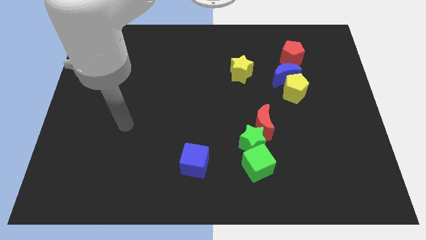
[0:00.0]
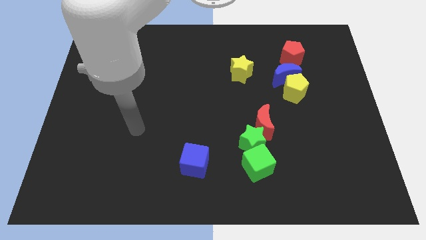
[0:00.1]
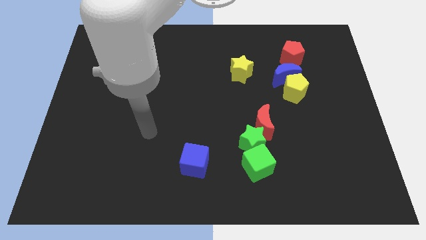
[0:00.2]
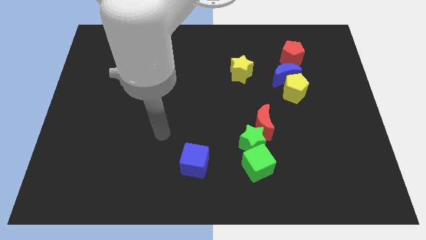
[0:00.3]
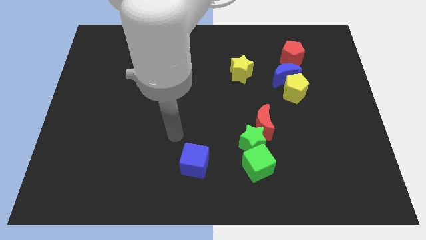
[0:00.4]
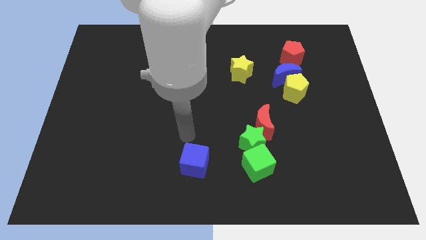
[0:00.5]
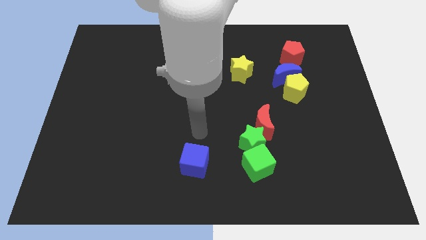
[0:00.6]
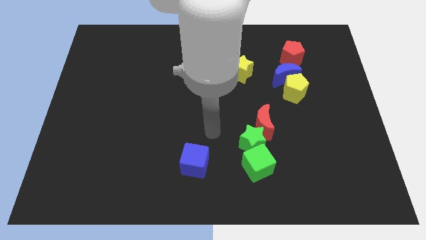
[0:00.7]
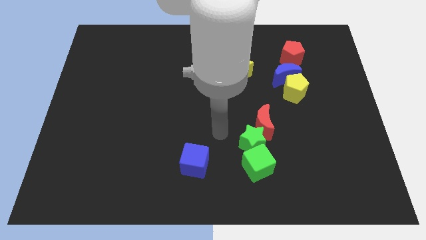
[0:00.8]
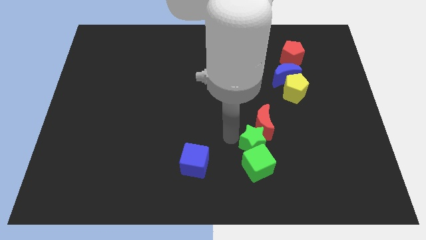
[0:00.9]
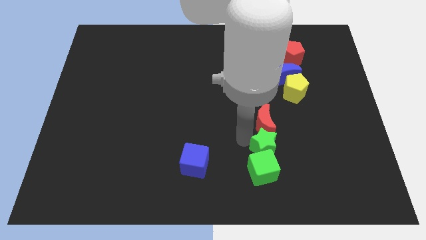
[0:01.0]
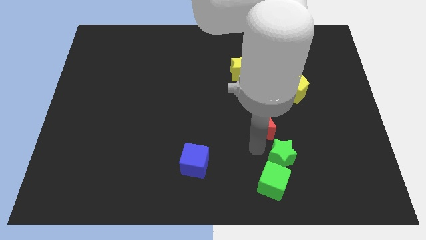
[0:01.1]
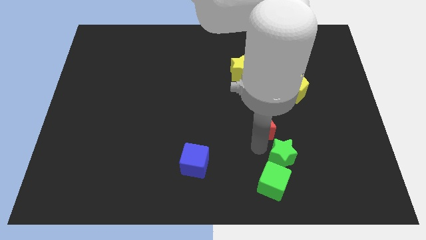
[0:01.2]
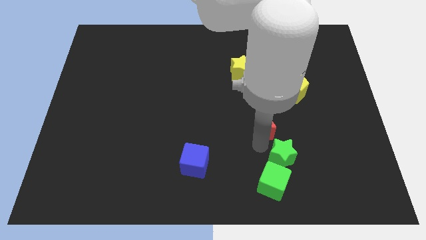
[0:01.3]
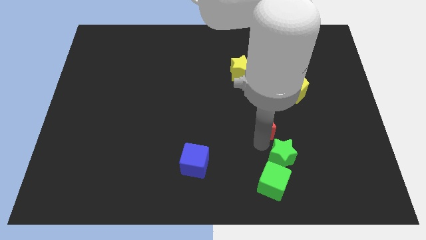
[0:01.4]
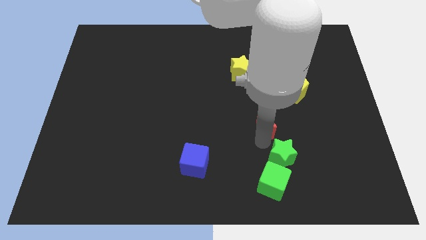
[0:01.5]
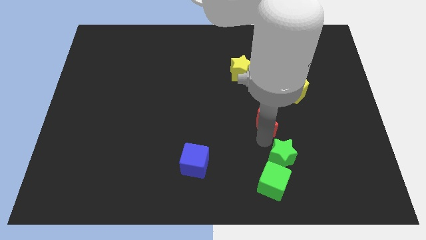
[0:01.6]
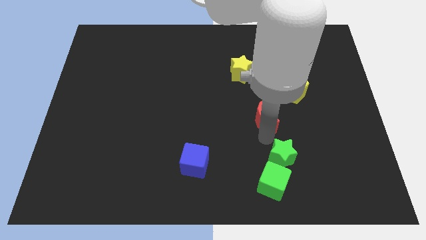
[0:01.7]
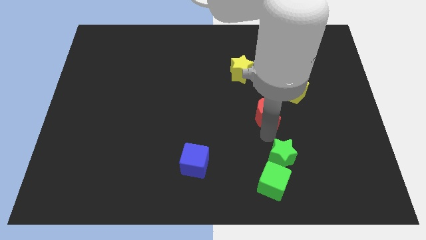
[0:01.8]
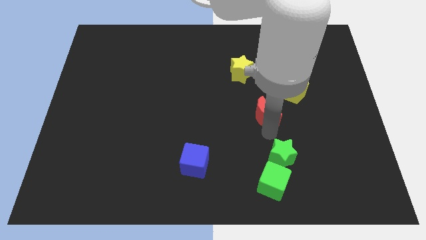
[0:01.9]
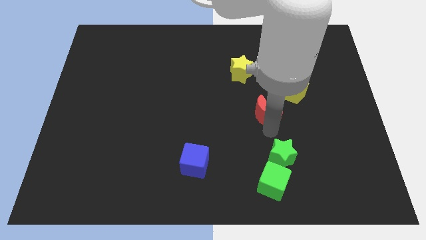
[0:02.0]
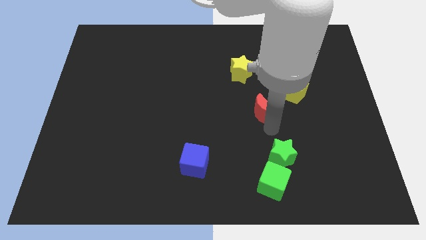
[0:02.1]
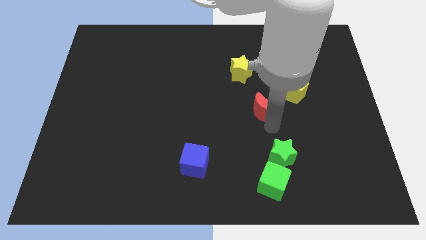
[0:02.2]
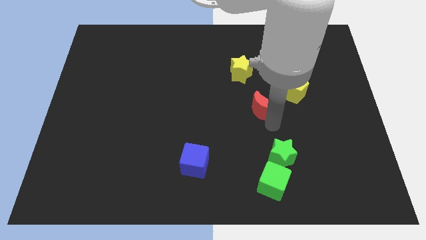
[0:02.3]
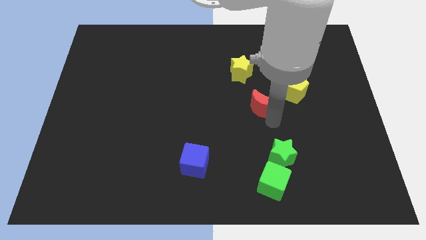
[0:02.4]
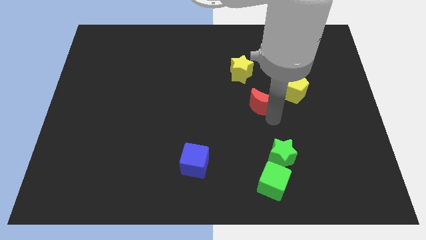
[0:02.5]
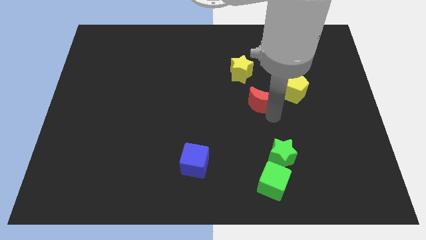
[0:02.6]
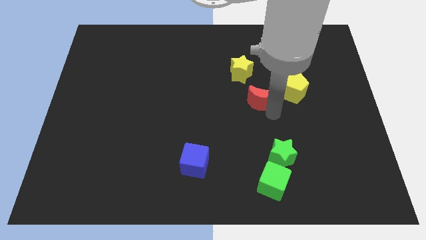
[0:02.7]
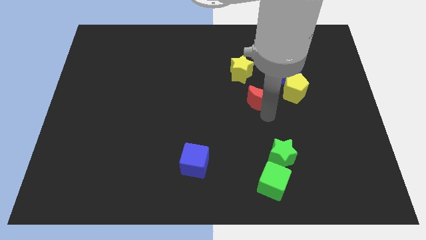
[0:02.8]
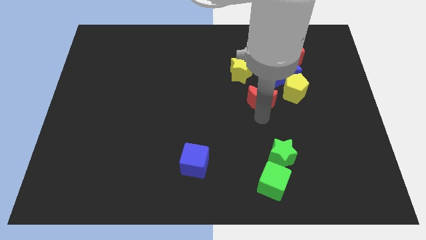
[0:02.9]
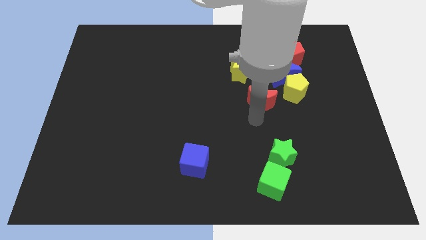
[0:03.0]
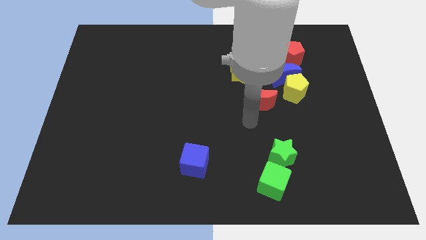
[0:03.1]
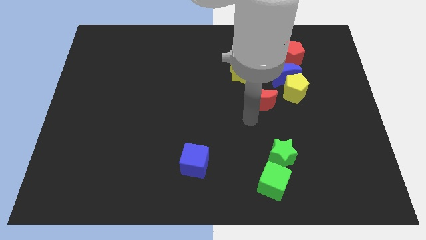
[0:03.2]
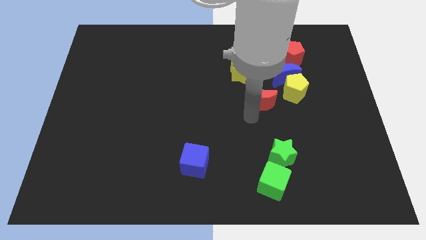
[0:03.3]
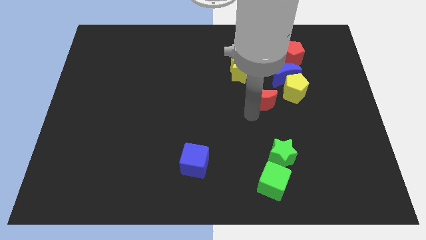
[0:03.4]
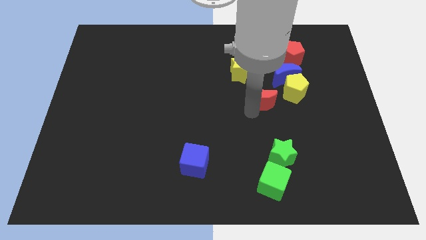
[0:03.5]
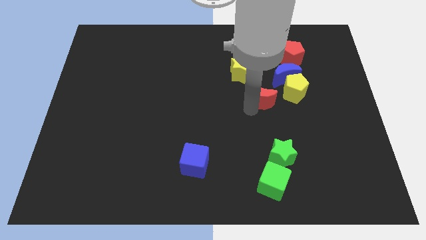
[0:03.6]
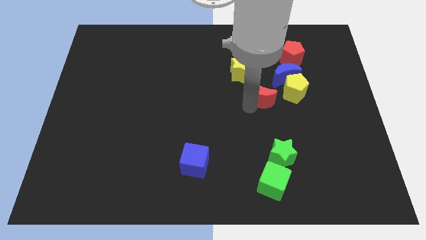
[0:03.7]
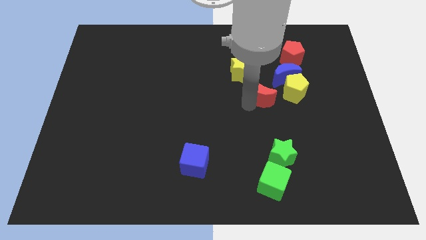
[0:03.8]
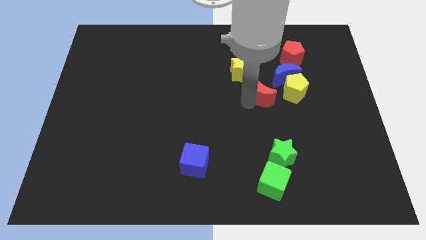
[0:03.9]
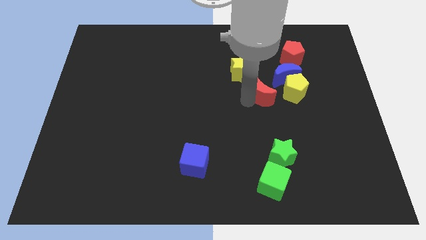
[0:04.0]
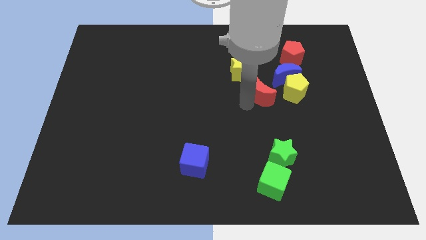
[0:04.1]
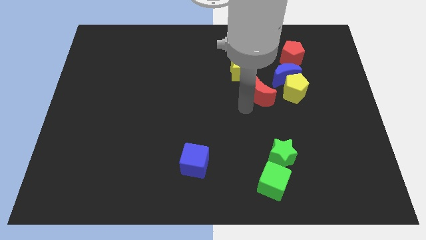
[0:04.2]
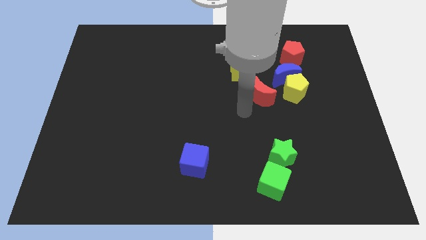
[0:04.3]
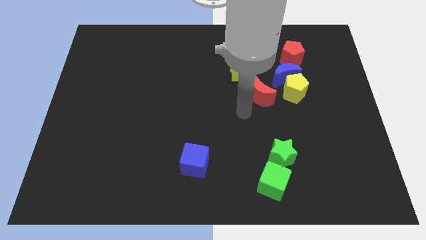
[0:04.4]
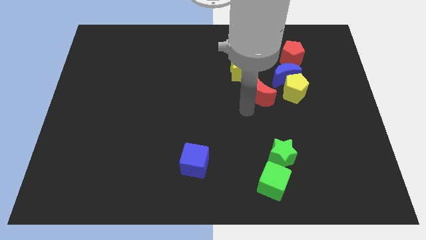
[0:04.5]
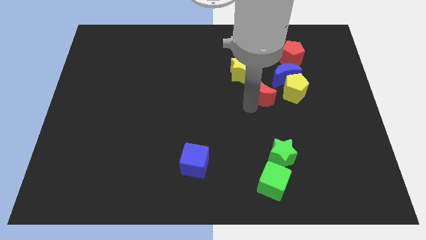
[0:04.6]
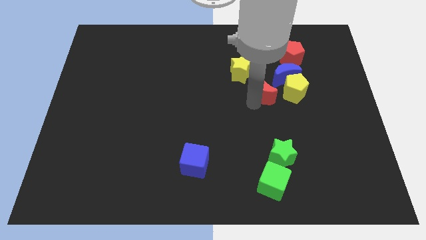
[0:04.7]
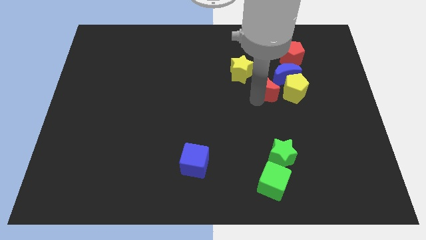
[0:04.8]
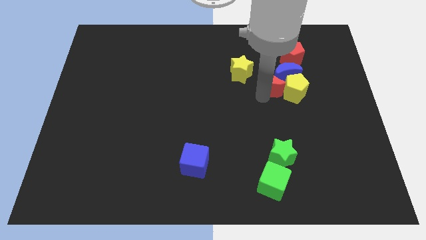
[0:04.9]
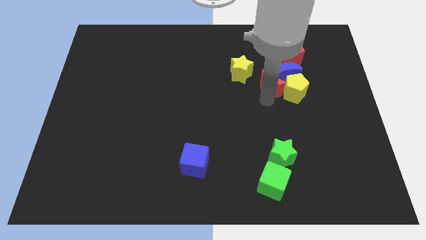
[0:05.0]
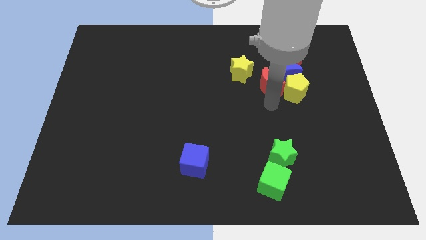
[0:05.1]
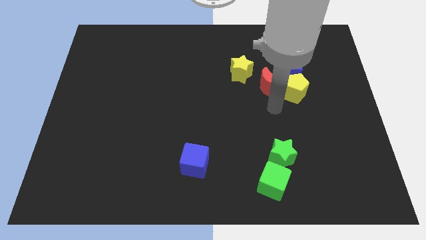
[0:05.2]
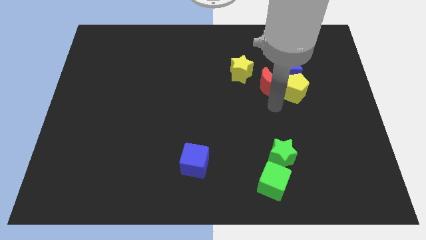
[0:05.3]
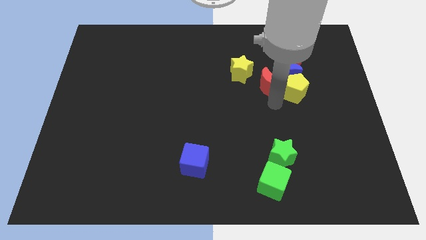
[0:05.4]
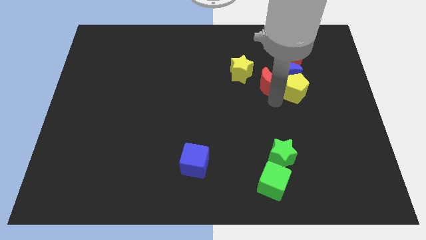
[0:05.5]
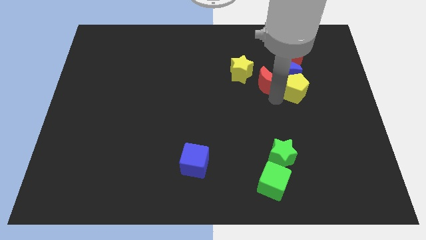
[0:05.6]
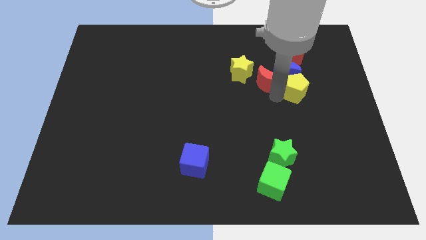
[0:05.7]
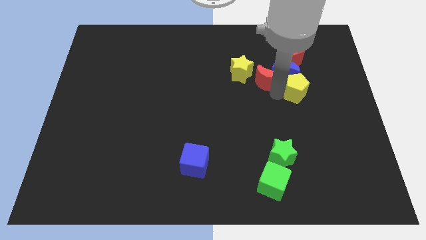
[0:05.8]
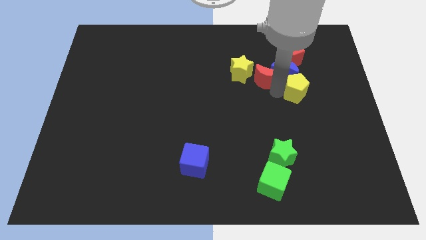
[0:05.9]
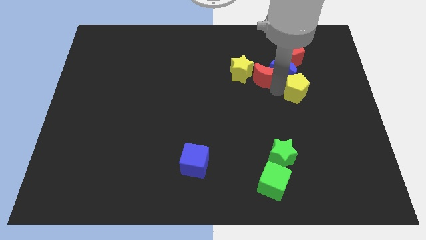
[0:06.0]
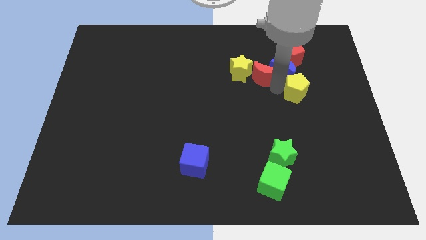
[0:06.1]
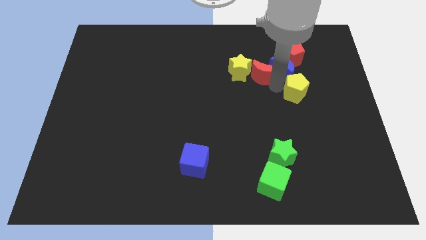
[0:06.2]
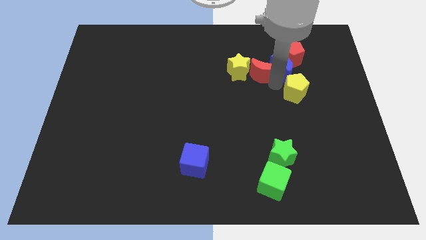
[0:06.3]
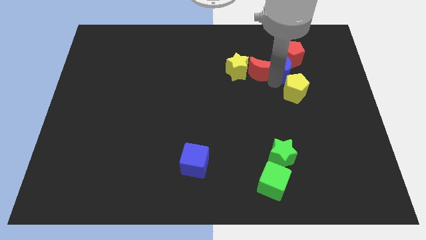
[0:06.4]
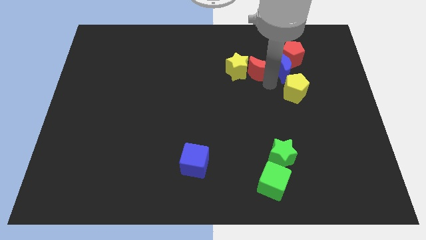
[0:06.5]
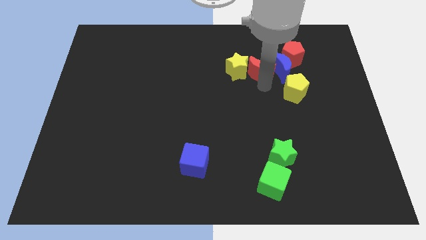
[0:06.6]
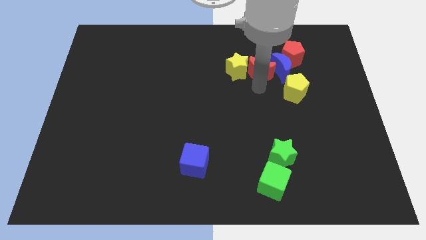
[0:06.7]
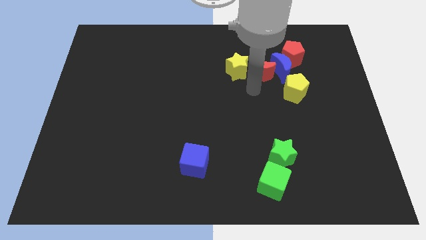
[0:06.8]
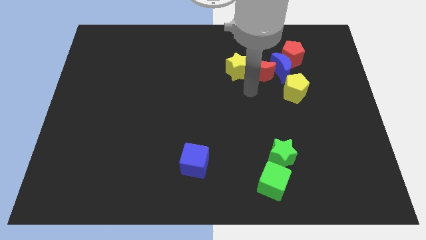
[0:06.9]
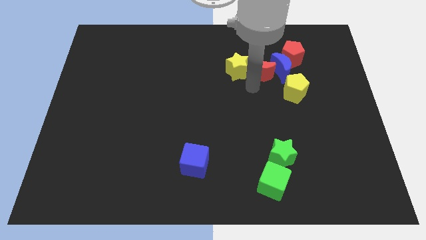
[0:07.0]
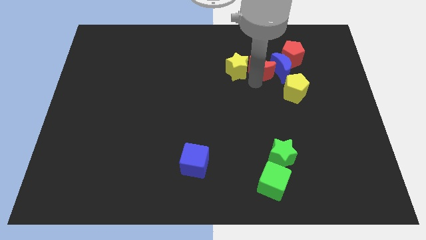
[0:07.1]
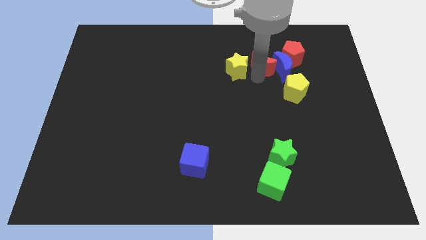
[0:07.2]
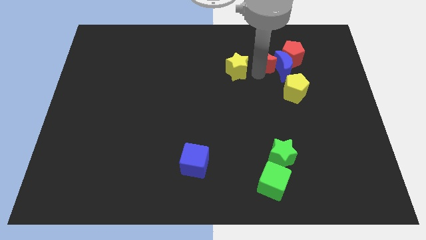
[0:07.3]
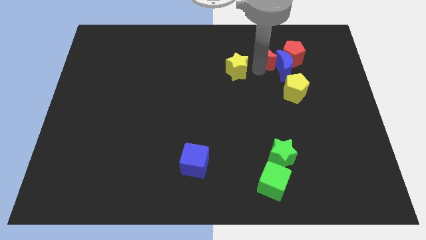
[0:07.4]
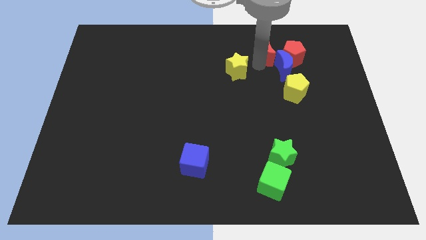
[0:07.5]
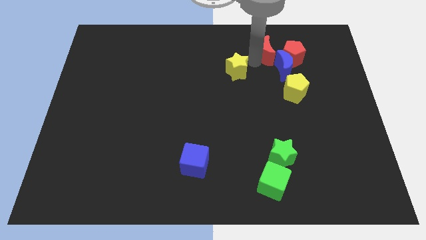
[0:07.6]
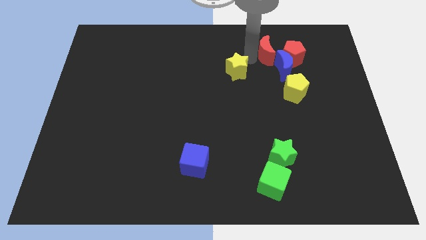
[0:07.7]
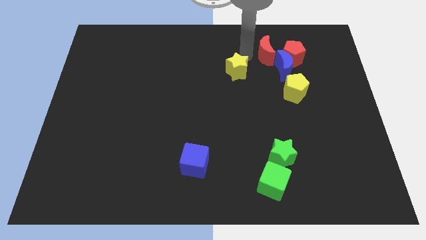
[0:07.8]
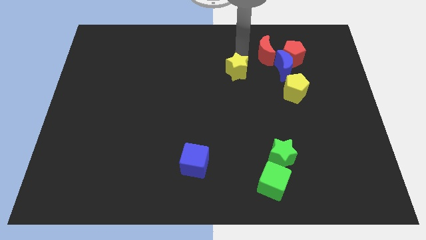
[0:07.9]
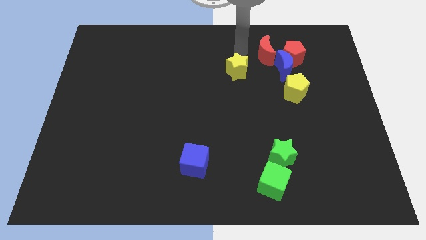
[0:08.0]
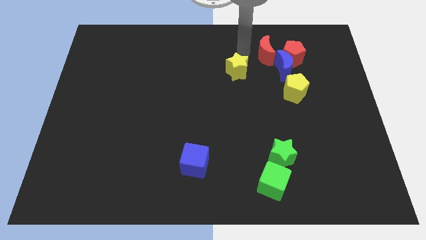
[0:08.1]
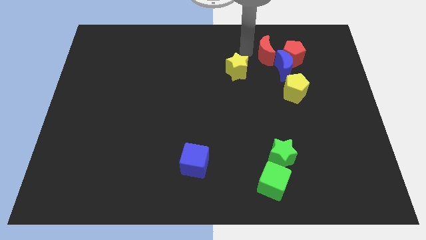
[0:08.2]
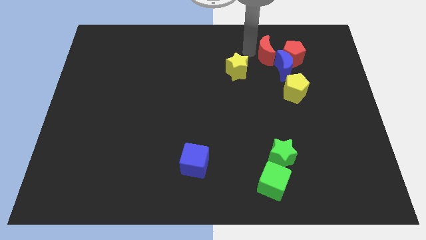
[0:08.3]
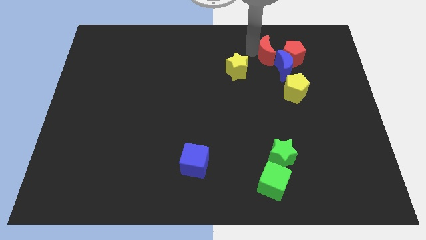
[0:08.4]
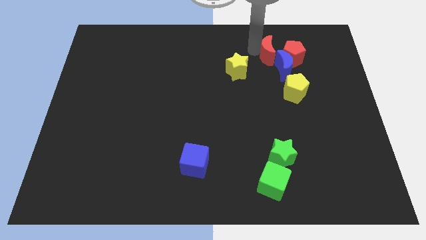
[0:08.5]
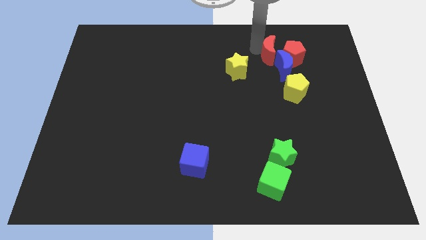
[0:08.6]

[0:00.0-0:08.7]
put the red moon next to the red pentagon
